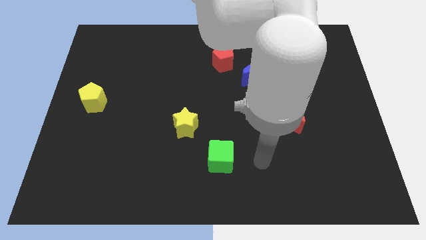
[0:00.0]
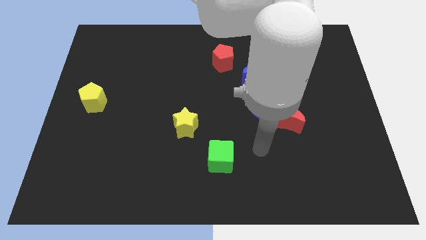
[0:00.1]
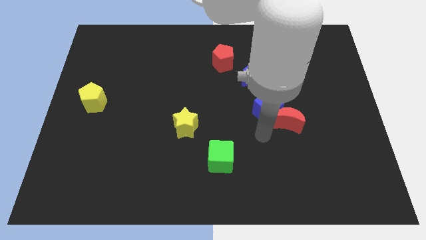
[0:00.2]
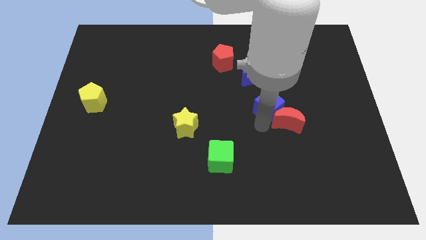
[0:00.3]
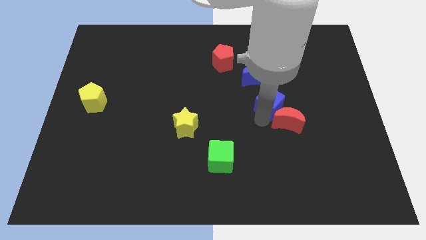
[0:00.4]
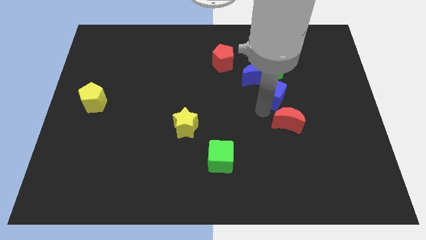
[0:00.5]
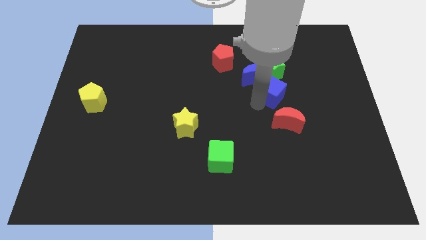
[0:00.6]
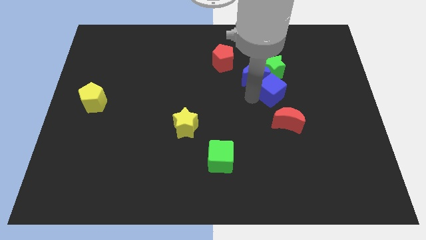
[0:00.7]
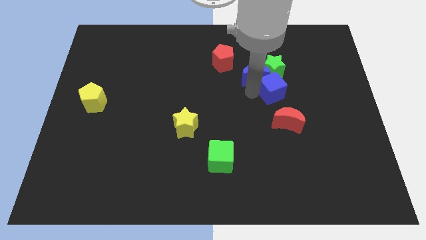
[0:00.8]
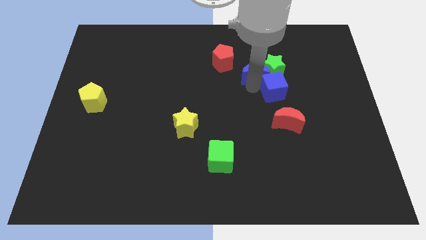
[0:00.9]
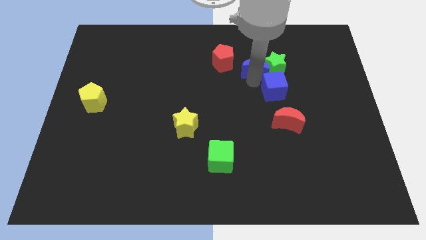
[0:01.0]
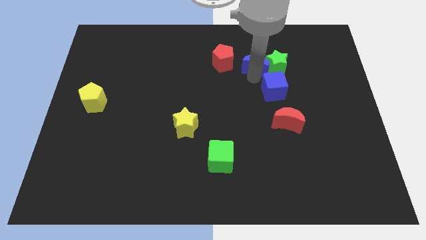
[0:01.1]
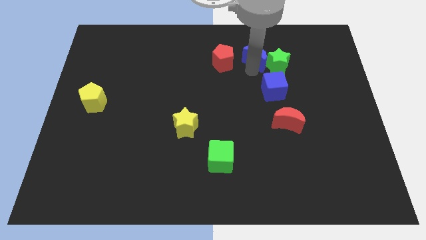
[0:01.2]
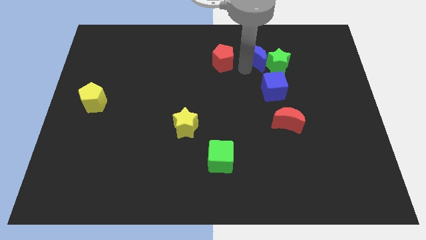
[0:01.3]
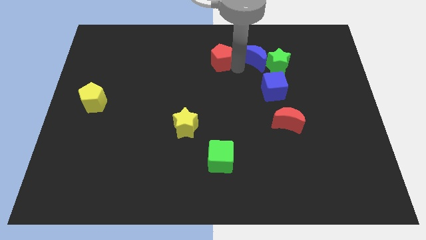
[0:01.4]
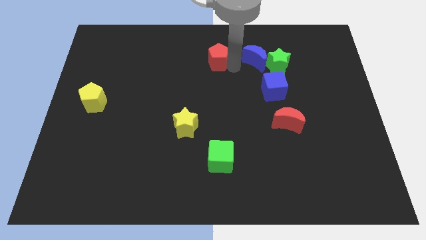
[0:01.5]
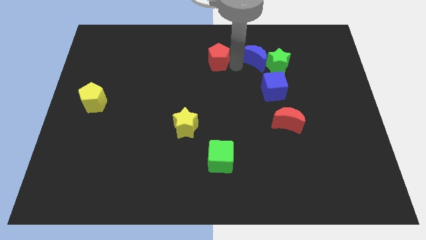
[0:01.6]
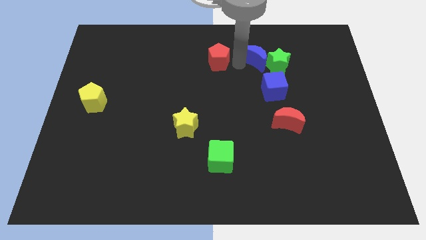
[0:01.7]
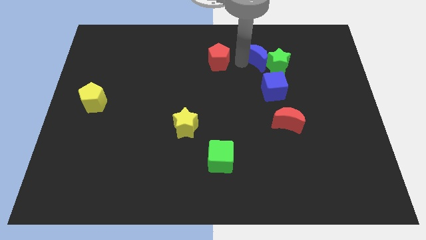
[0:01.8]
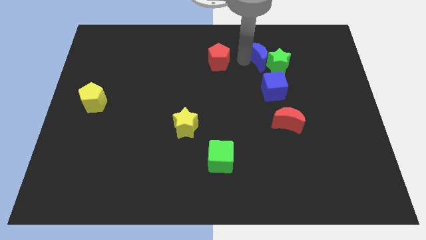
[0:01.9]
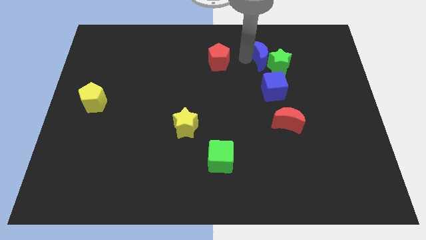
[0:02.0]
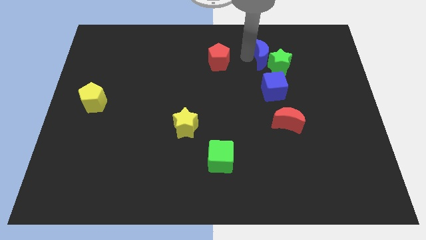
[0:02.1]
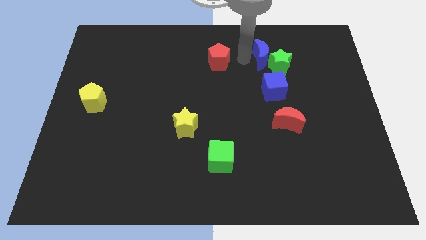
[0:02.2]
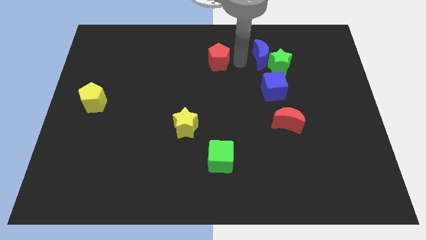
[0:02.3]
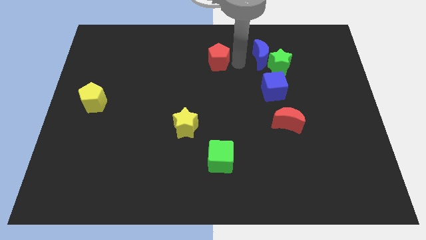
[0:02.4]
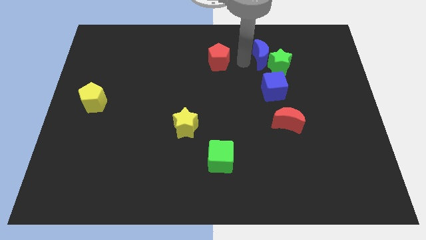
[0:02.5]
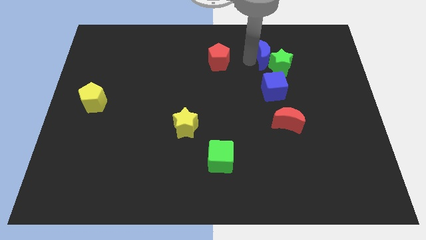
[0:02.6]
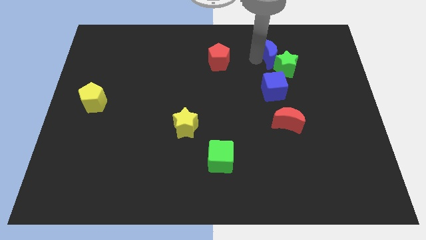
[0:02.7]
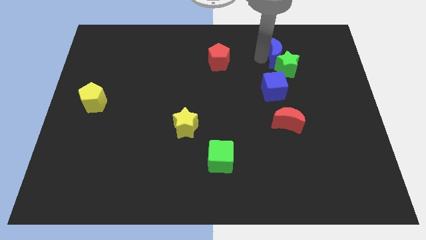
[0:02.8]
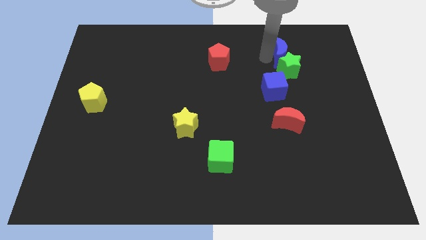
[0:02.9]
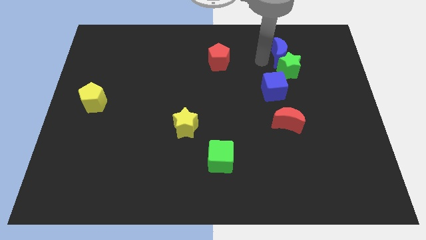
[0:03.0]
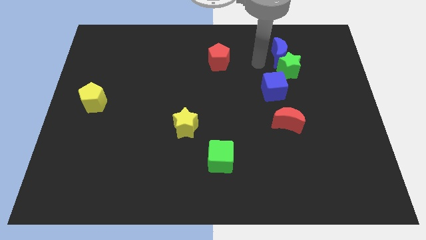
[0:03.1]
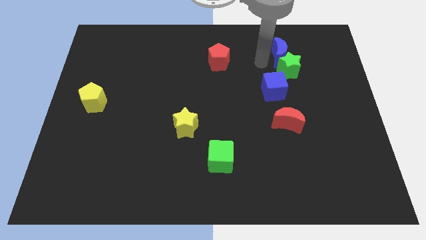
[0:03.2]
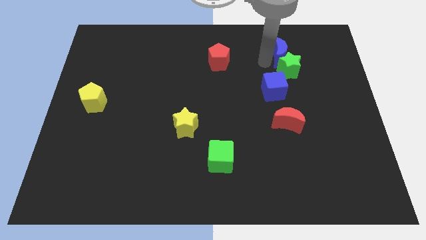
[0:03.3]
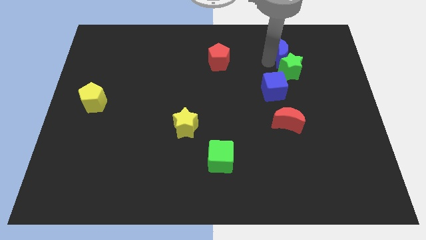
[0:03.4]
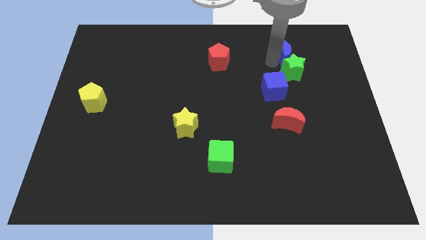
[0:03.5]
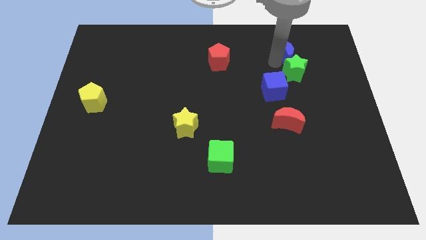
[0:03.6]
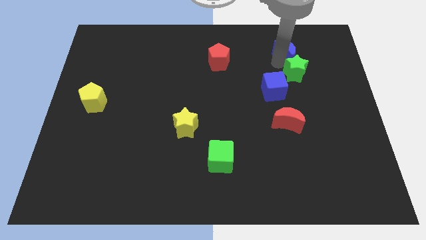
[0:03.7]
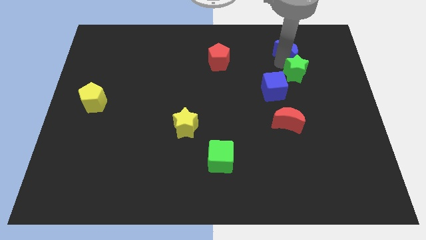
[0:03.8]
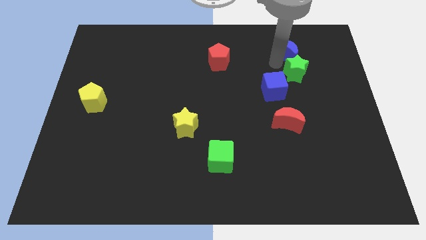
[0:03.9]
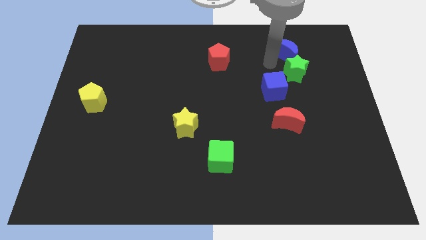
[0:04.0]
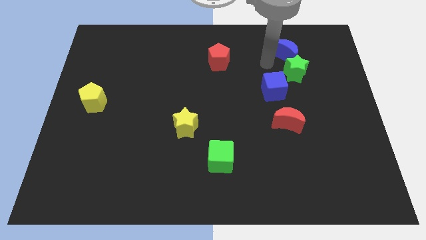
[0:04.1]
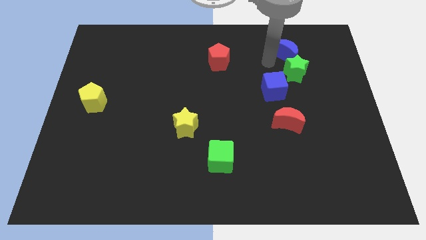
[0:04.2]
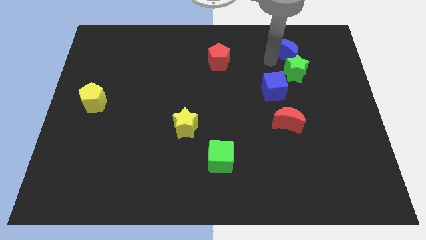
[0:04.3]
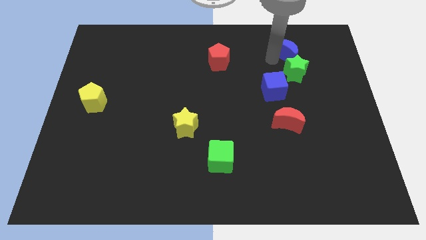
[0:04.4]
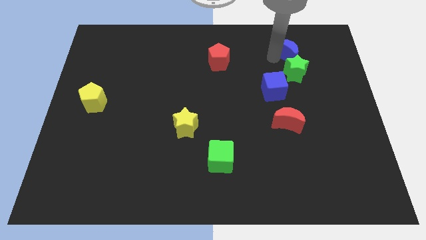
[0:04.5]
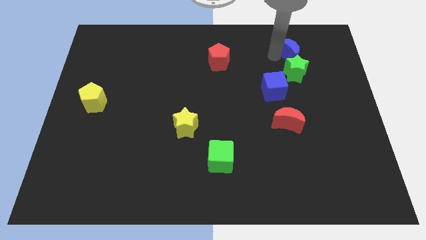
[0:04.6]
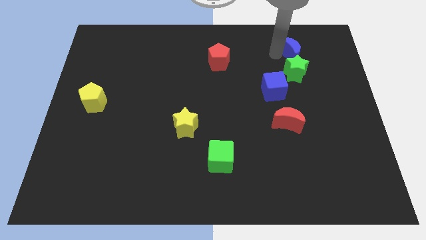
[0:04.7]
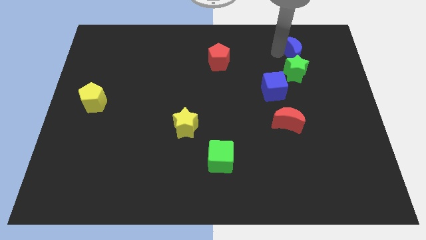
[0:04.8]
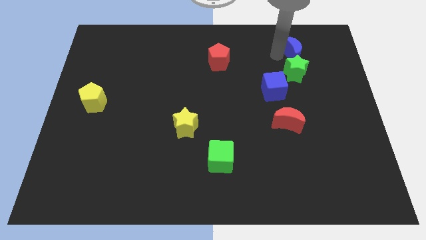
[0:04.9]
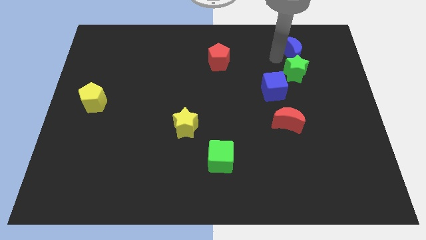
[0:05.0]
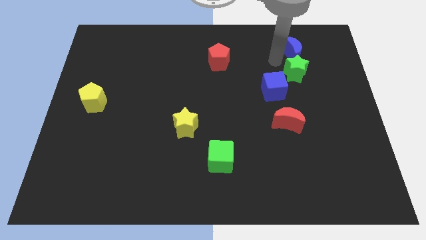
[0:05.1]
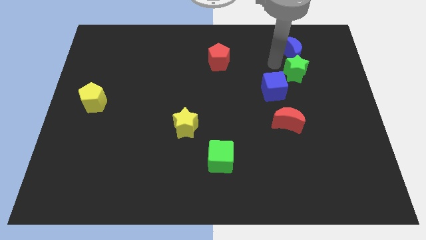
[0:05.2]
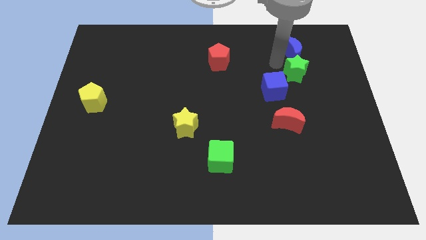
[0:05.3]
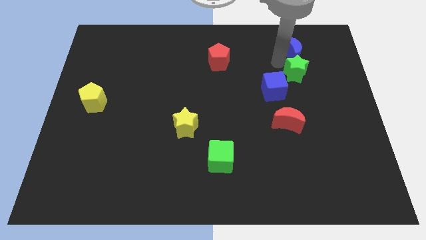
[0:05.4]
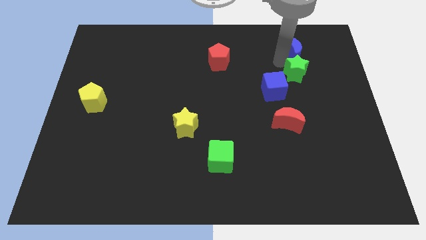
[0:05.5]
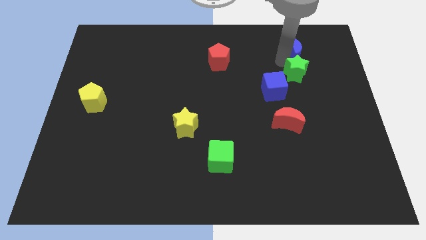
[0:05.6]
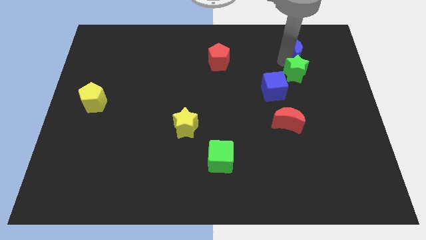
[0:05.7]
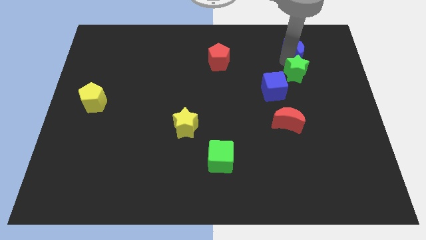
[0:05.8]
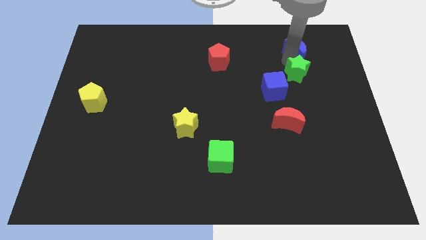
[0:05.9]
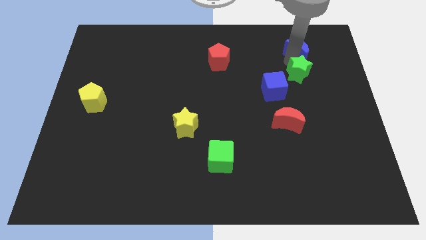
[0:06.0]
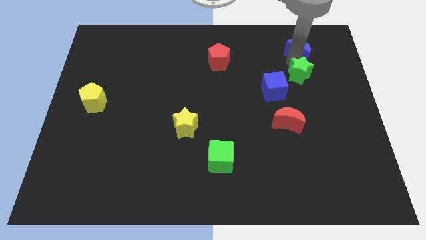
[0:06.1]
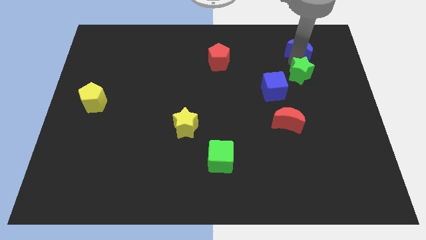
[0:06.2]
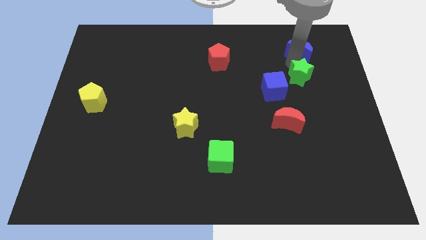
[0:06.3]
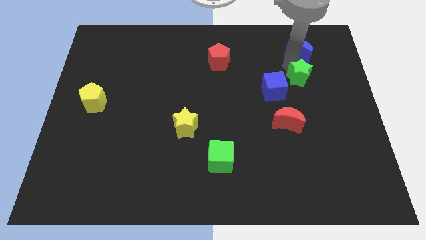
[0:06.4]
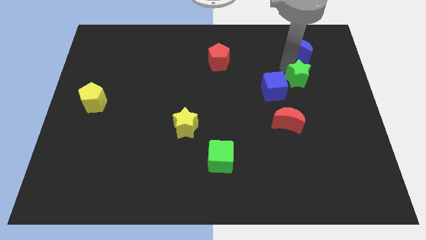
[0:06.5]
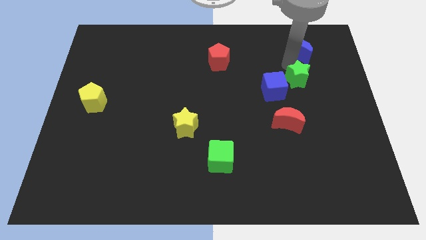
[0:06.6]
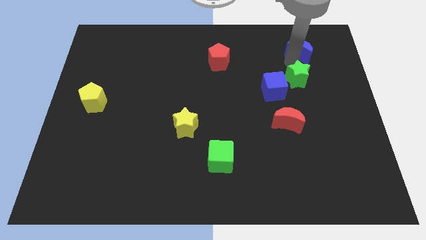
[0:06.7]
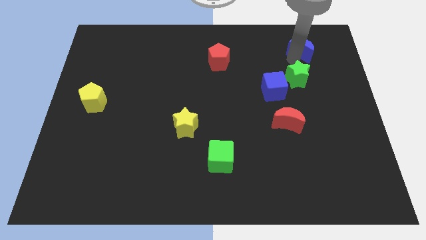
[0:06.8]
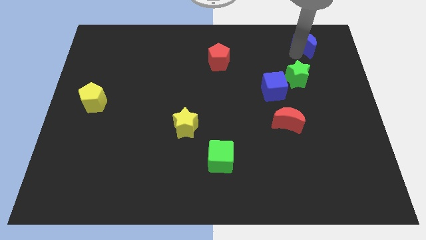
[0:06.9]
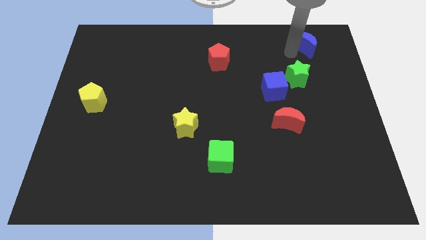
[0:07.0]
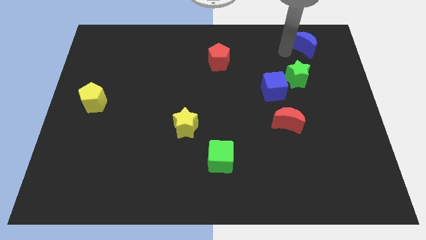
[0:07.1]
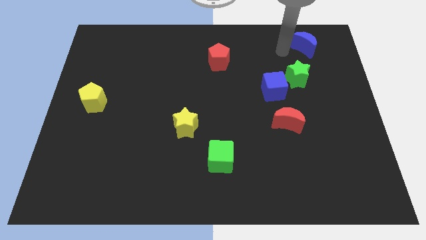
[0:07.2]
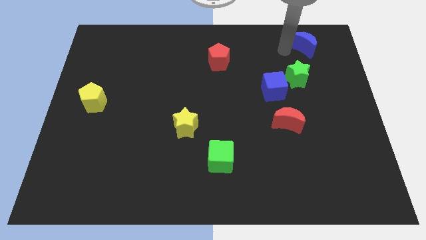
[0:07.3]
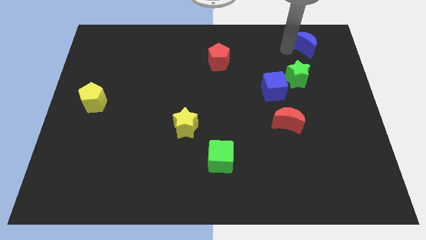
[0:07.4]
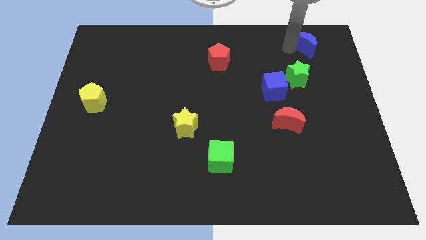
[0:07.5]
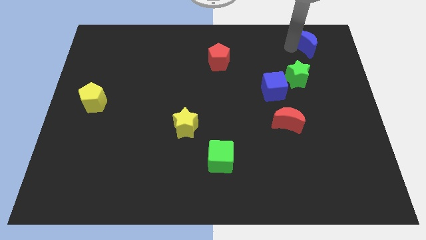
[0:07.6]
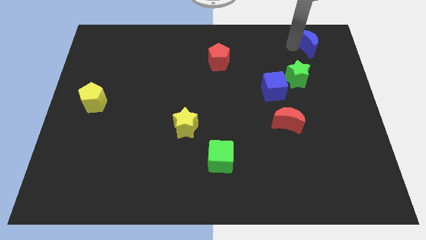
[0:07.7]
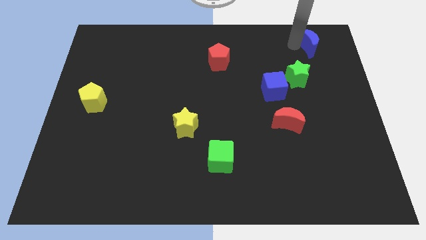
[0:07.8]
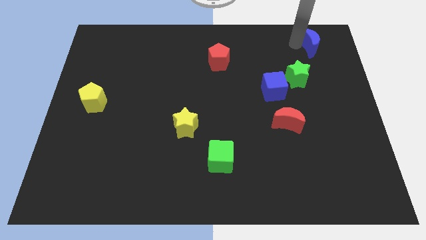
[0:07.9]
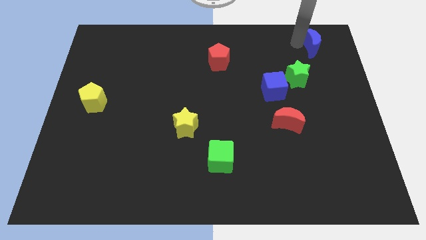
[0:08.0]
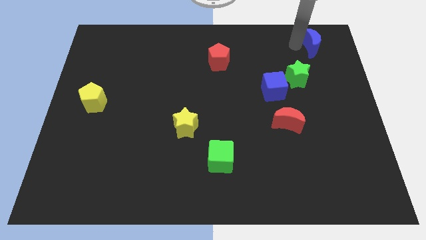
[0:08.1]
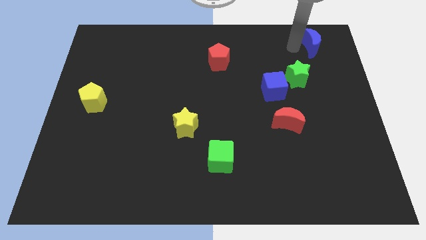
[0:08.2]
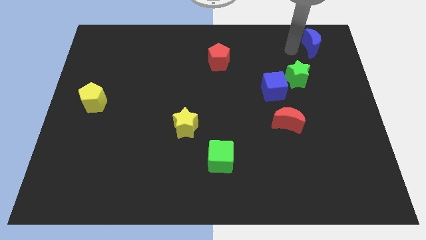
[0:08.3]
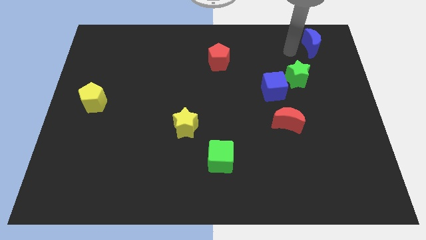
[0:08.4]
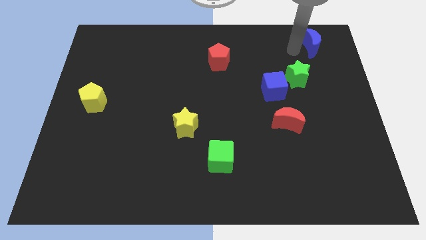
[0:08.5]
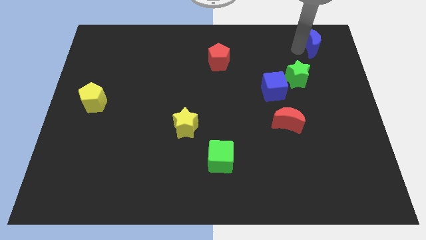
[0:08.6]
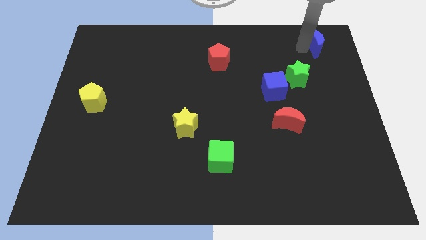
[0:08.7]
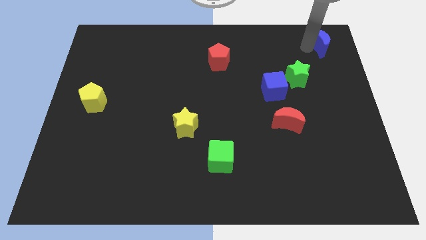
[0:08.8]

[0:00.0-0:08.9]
put the blue moon to the top right of the board
